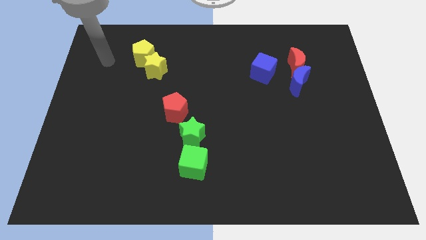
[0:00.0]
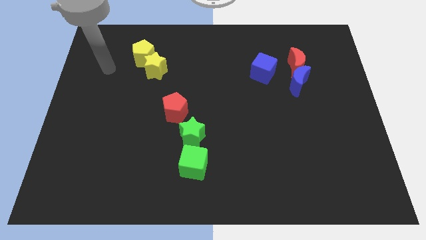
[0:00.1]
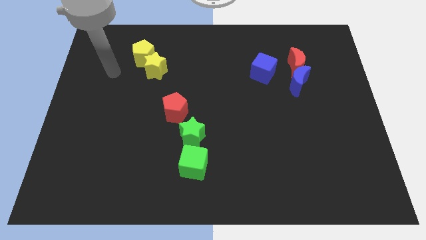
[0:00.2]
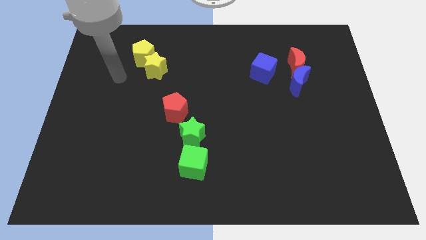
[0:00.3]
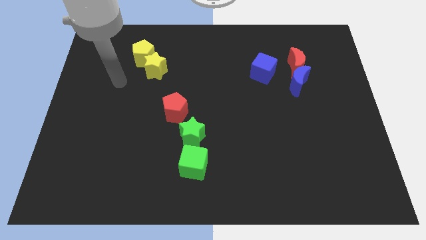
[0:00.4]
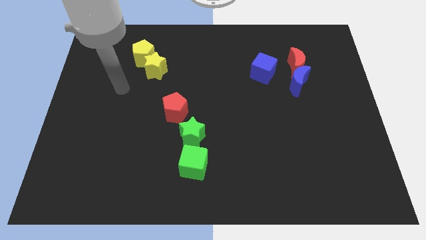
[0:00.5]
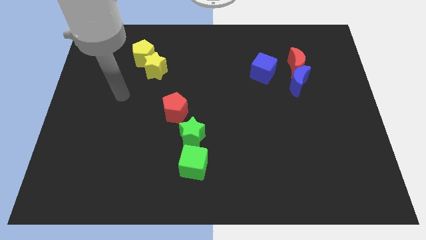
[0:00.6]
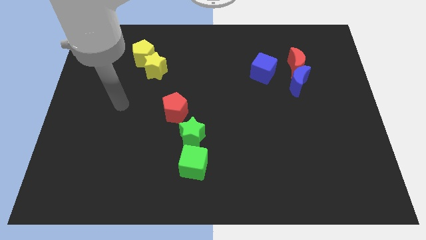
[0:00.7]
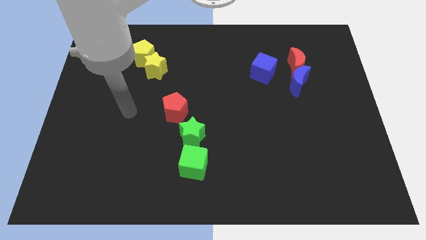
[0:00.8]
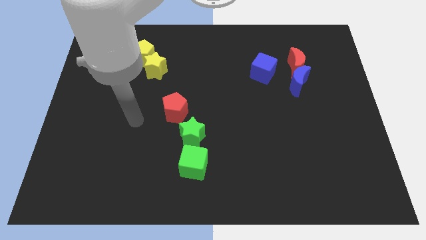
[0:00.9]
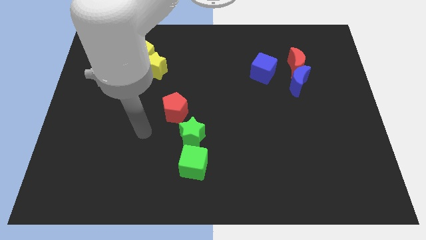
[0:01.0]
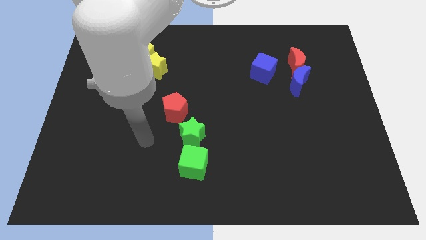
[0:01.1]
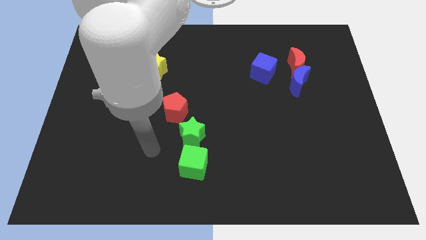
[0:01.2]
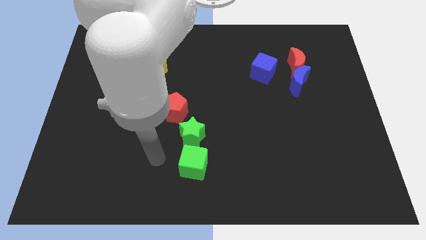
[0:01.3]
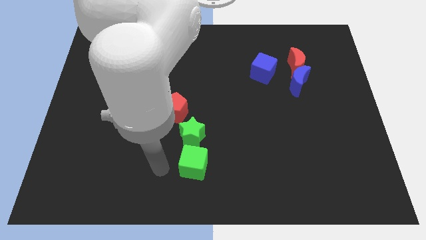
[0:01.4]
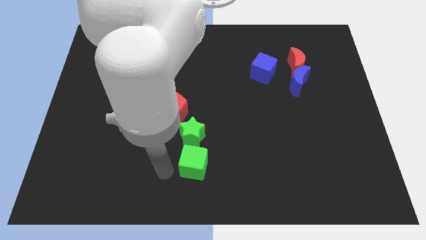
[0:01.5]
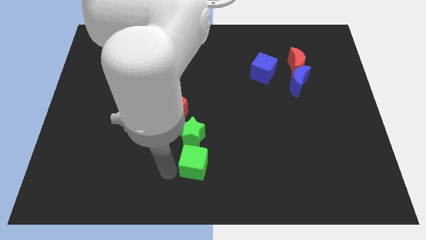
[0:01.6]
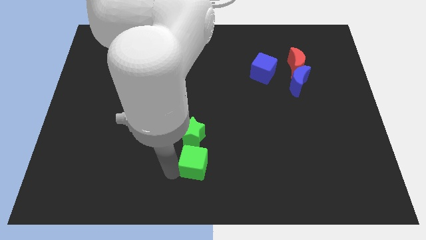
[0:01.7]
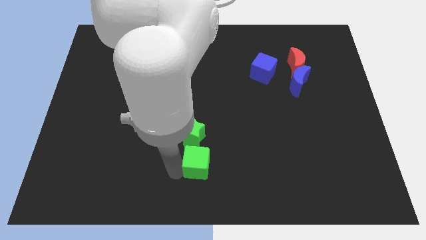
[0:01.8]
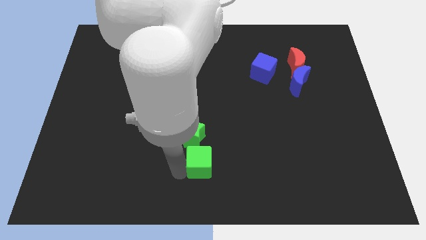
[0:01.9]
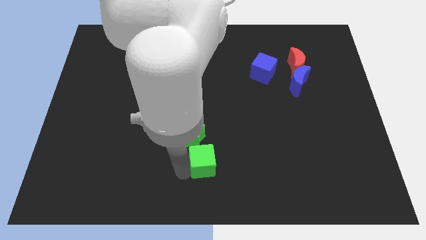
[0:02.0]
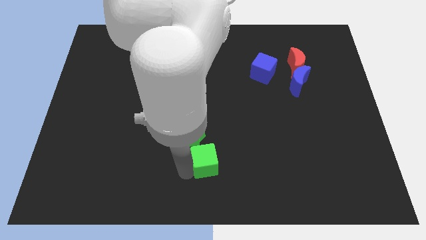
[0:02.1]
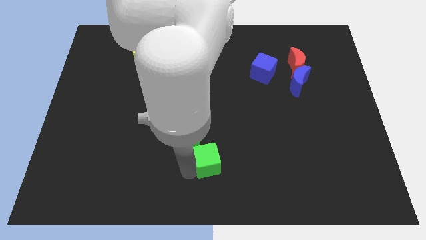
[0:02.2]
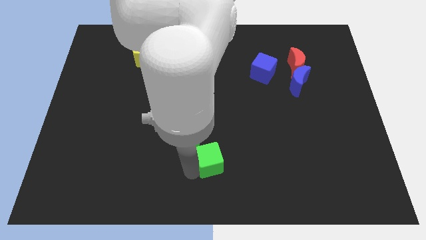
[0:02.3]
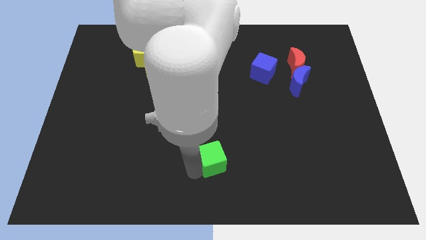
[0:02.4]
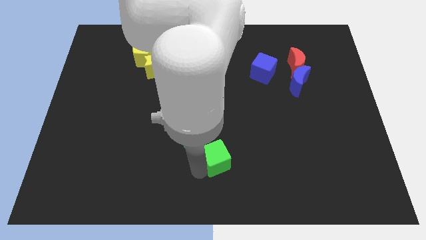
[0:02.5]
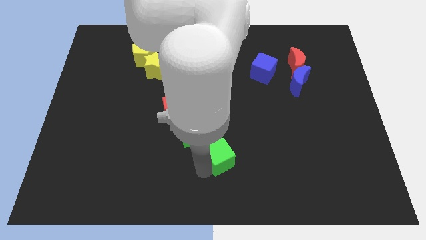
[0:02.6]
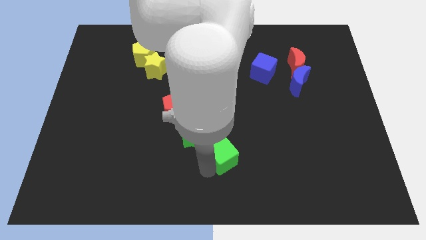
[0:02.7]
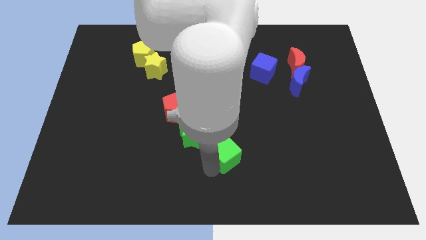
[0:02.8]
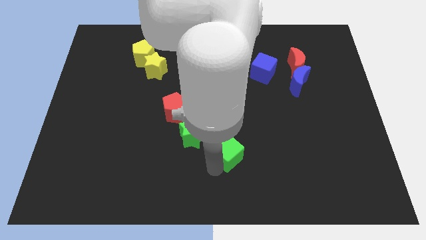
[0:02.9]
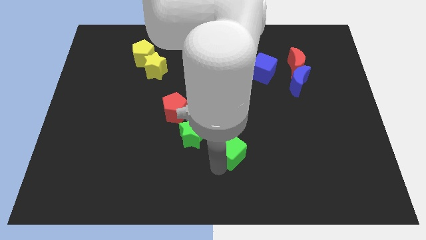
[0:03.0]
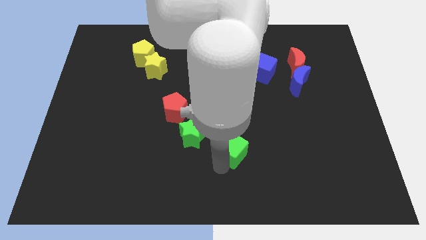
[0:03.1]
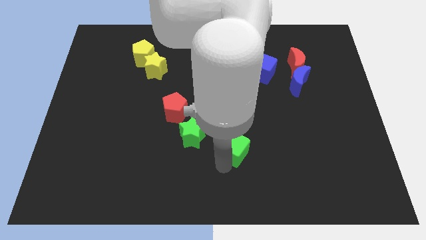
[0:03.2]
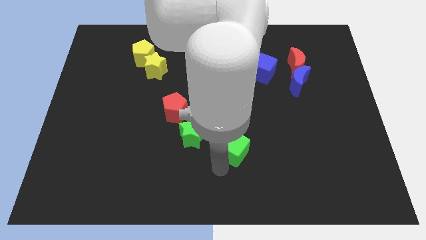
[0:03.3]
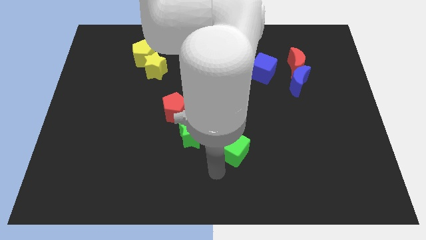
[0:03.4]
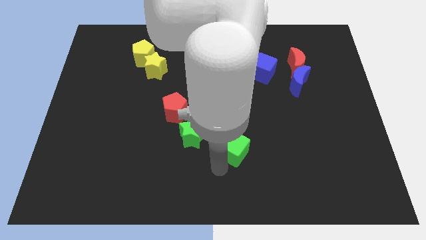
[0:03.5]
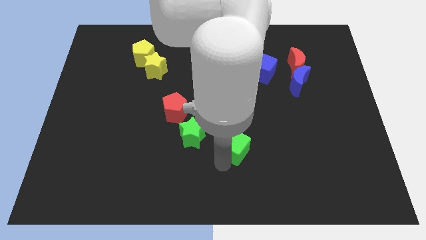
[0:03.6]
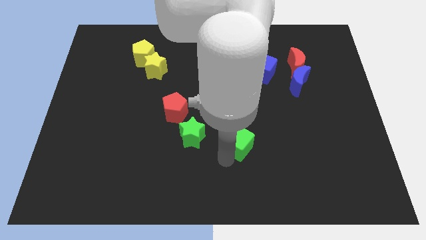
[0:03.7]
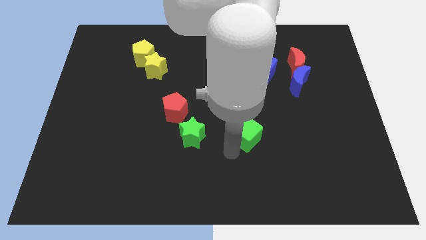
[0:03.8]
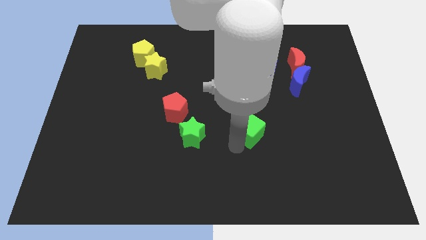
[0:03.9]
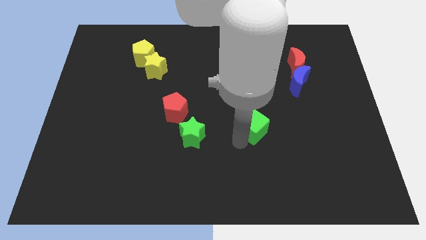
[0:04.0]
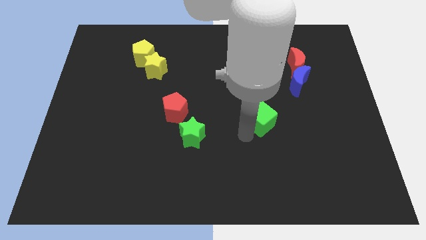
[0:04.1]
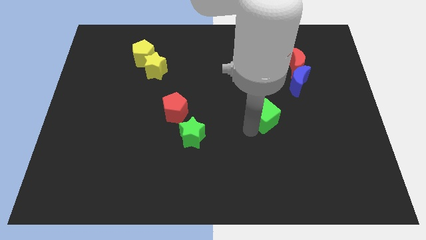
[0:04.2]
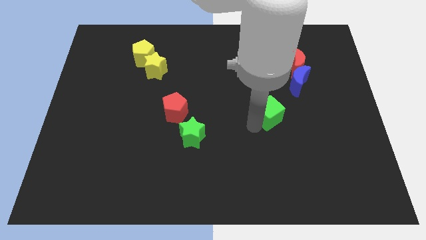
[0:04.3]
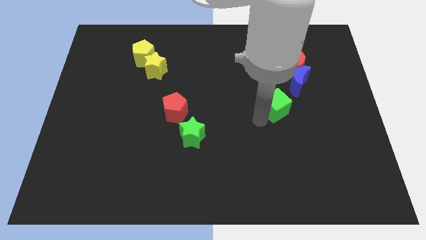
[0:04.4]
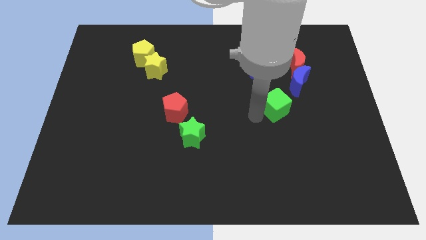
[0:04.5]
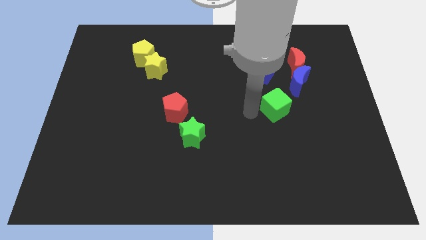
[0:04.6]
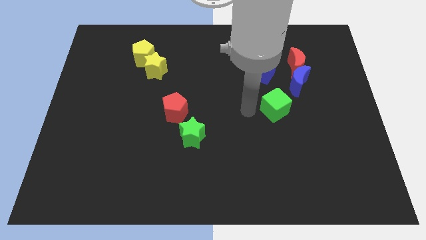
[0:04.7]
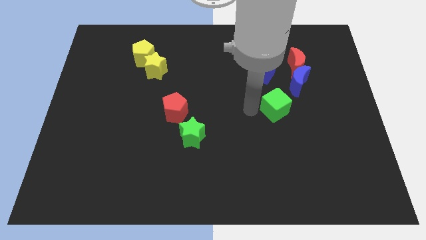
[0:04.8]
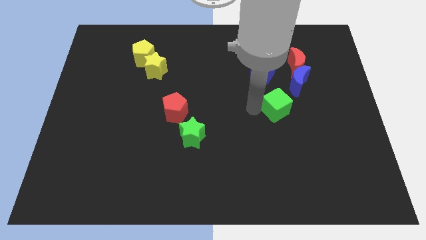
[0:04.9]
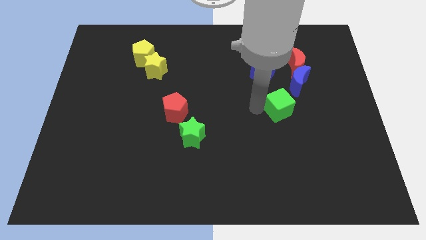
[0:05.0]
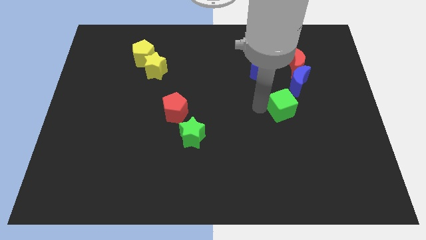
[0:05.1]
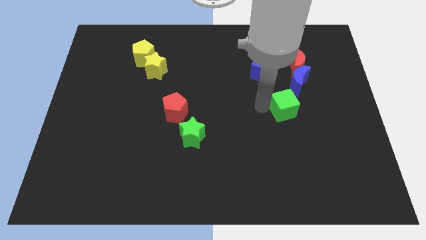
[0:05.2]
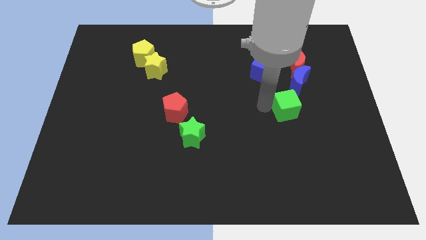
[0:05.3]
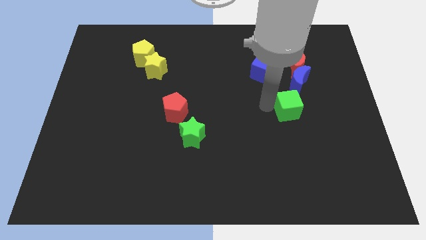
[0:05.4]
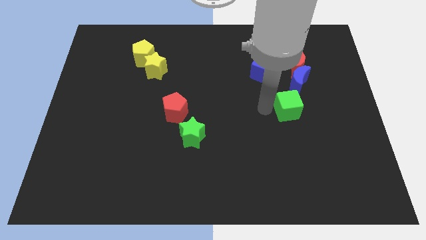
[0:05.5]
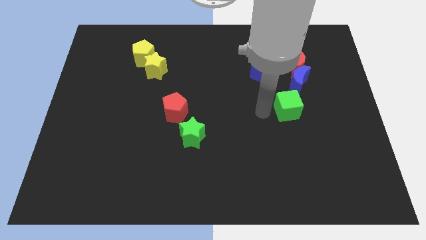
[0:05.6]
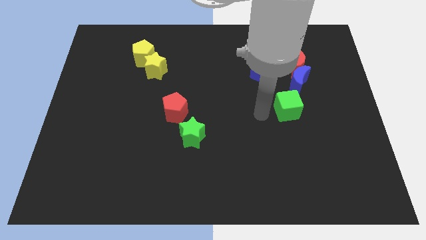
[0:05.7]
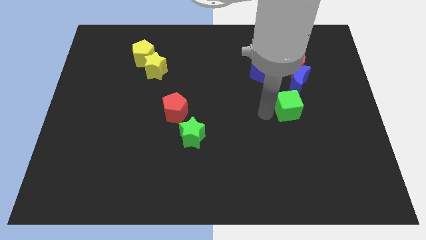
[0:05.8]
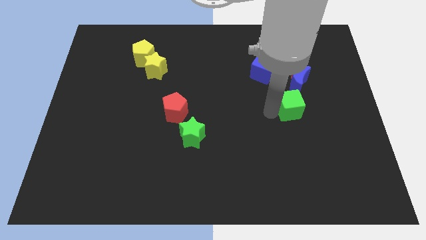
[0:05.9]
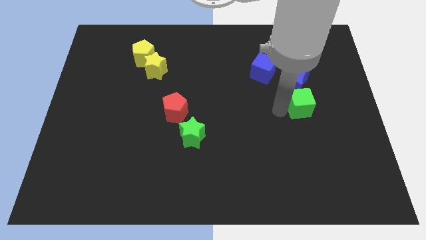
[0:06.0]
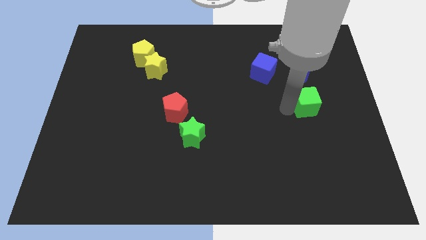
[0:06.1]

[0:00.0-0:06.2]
move the green cube diagonally down and to the right of the blue moon
